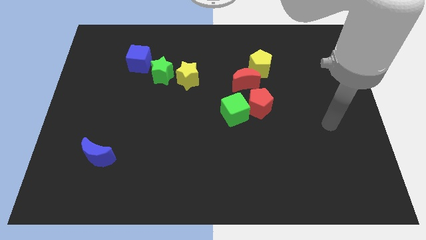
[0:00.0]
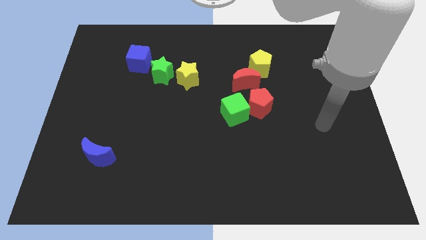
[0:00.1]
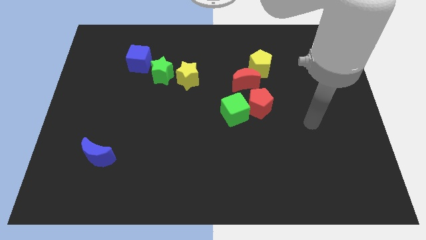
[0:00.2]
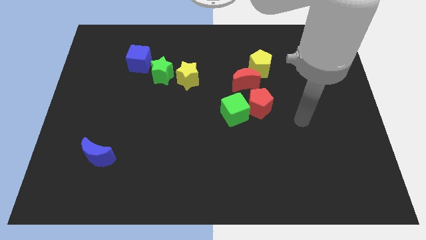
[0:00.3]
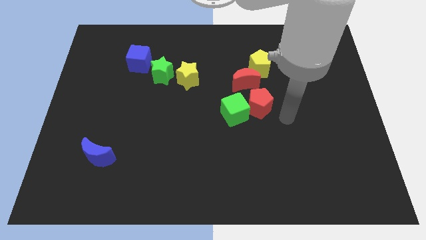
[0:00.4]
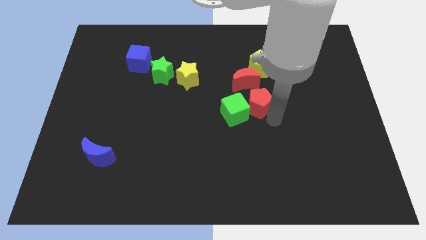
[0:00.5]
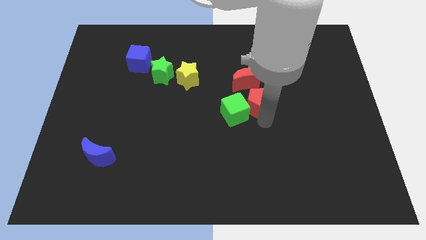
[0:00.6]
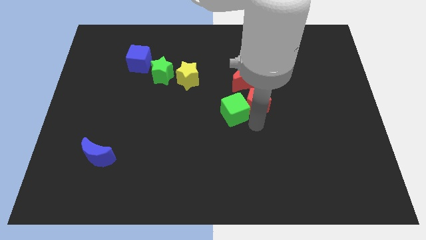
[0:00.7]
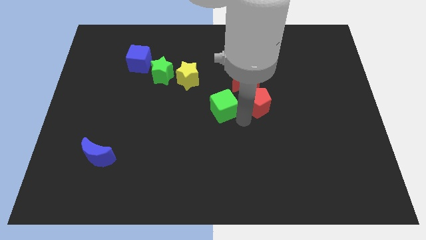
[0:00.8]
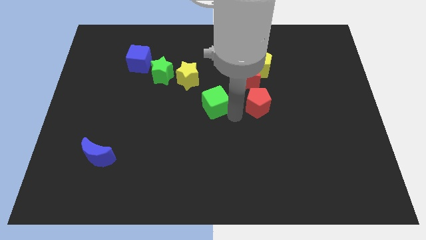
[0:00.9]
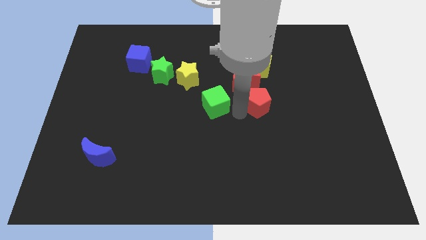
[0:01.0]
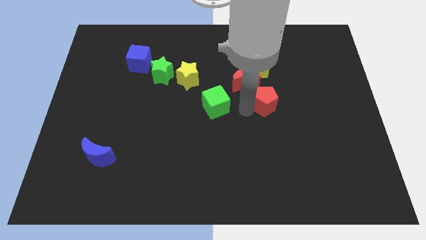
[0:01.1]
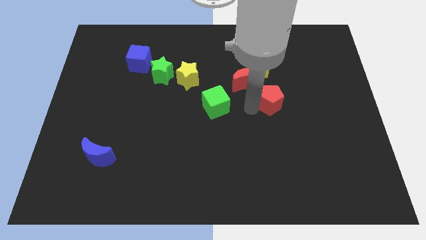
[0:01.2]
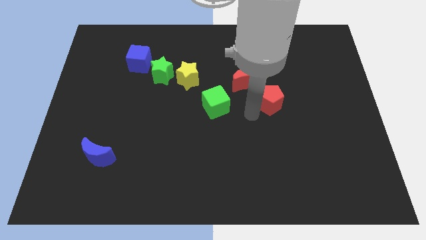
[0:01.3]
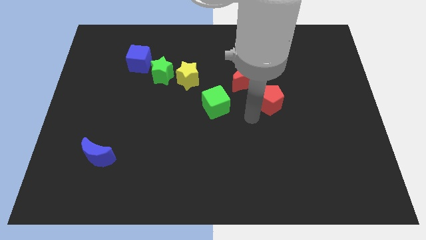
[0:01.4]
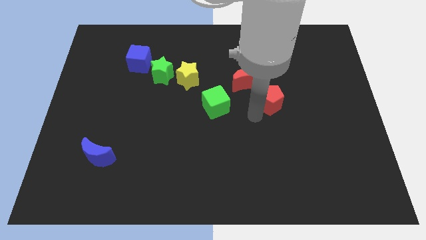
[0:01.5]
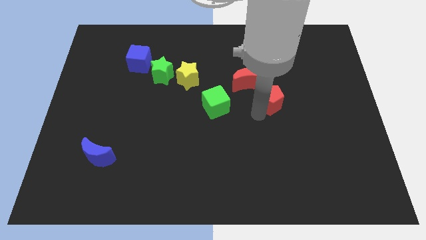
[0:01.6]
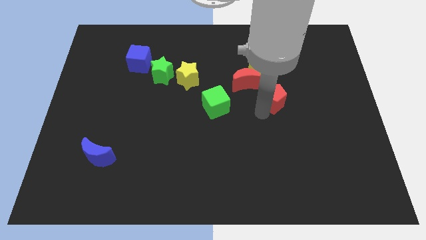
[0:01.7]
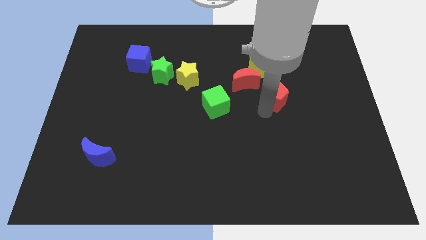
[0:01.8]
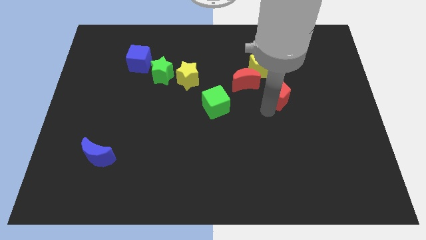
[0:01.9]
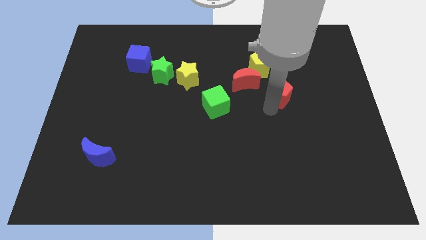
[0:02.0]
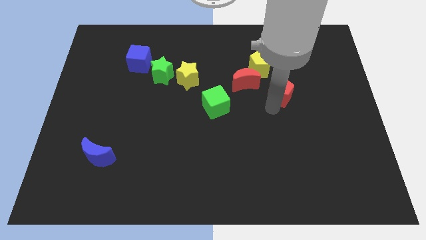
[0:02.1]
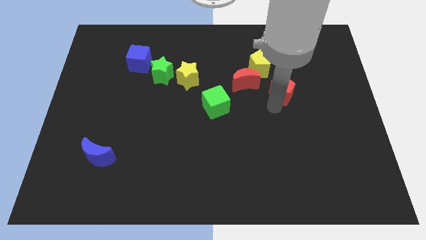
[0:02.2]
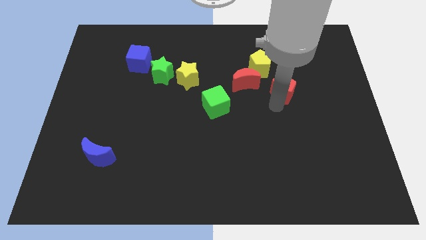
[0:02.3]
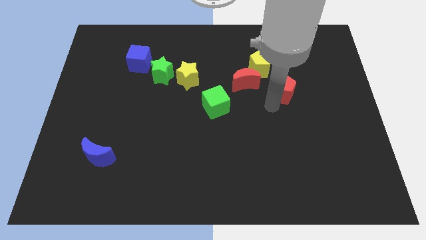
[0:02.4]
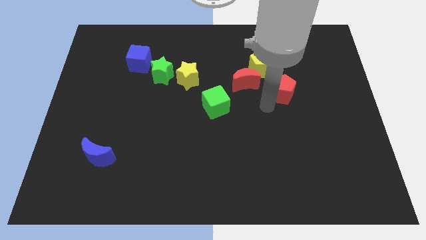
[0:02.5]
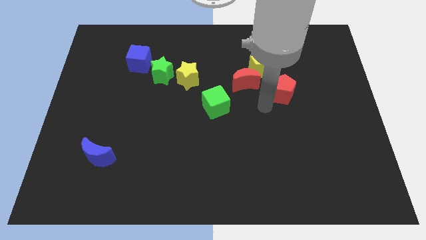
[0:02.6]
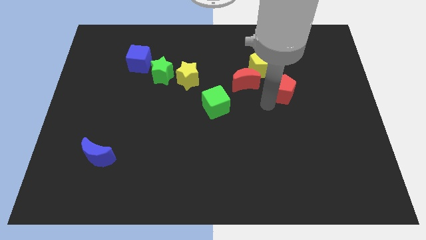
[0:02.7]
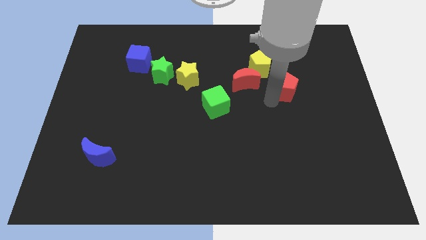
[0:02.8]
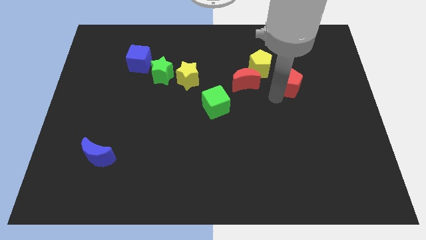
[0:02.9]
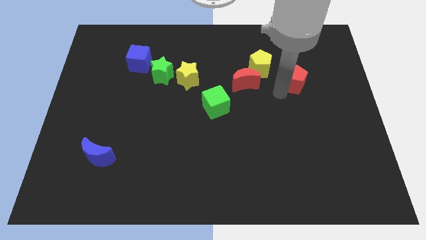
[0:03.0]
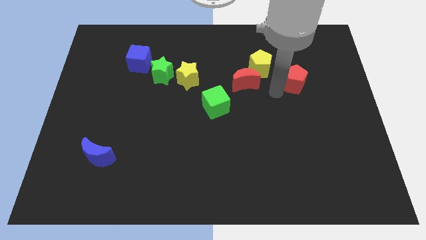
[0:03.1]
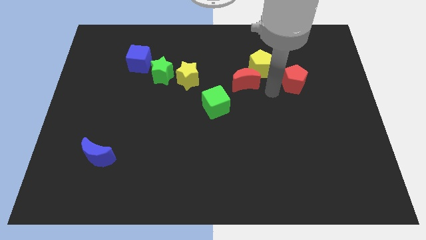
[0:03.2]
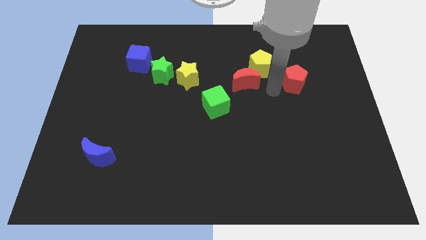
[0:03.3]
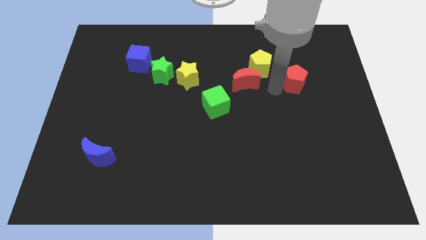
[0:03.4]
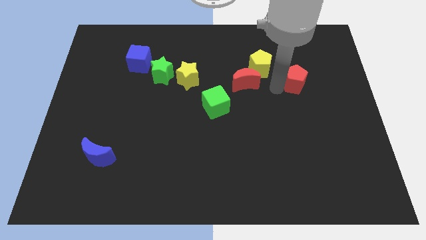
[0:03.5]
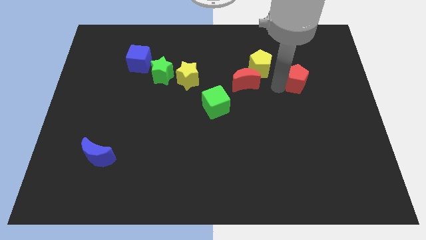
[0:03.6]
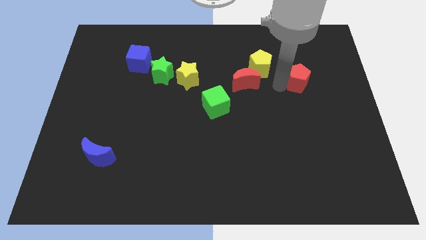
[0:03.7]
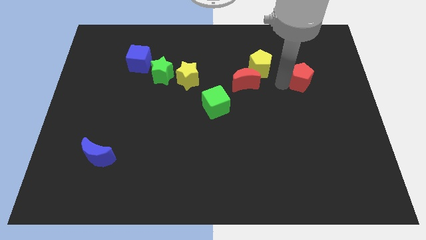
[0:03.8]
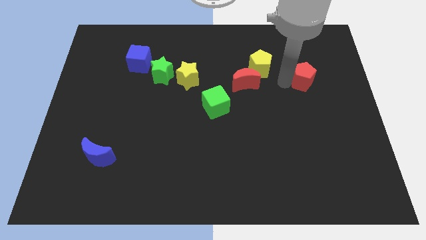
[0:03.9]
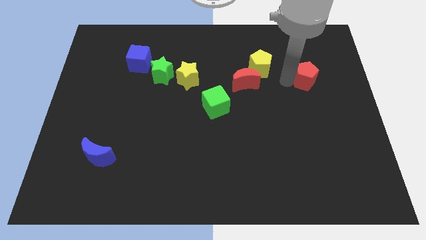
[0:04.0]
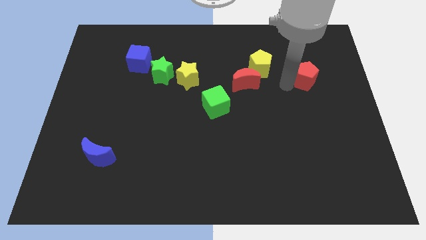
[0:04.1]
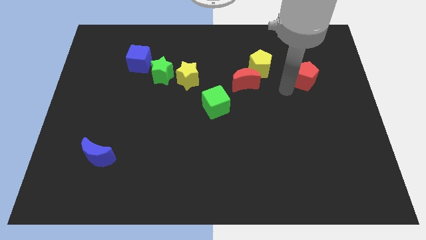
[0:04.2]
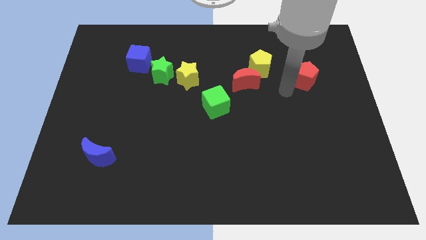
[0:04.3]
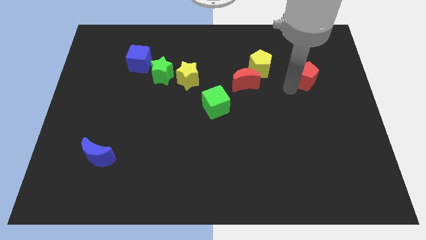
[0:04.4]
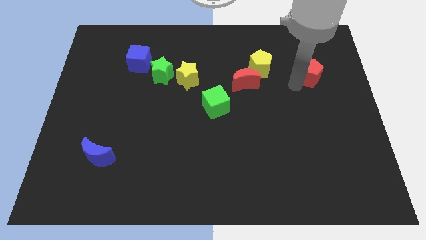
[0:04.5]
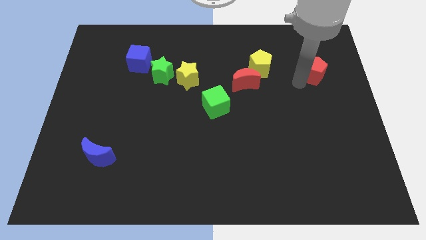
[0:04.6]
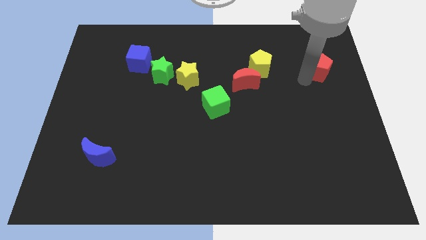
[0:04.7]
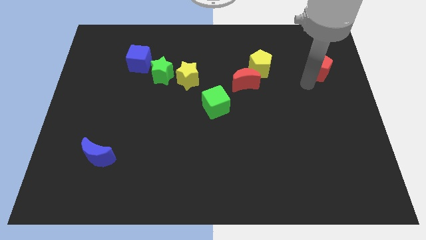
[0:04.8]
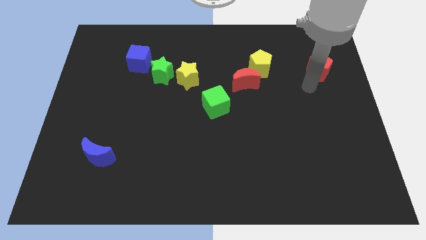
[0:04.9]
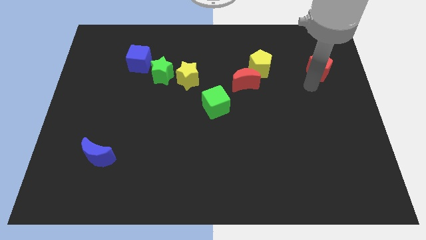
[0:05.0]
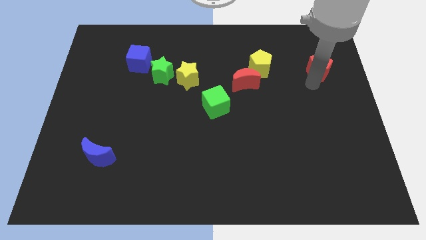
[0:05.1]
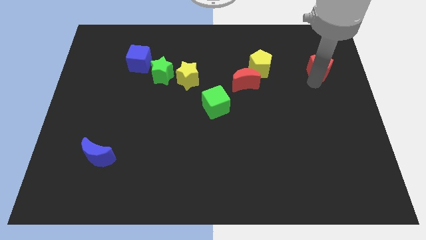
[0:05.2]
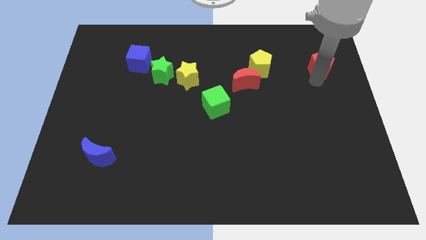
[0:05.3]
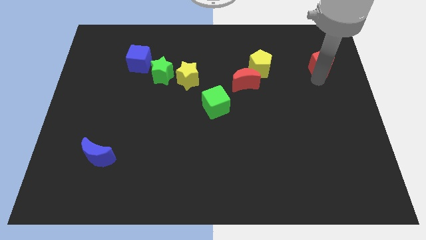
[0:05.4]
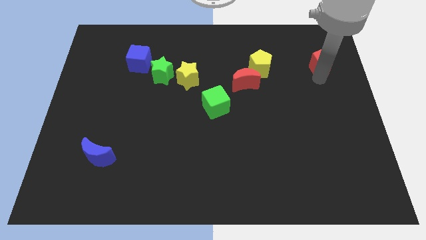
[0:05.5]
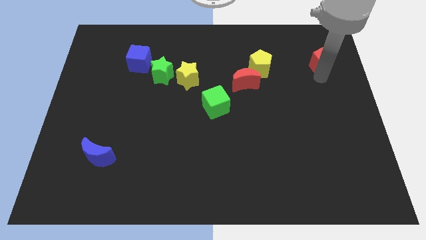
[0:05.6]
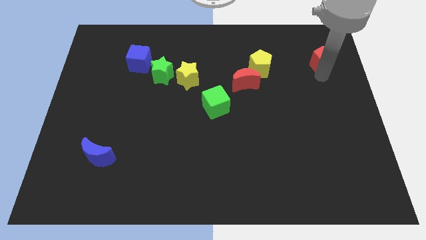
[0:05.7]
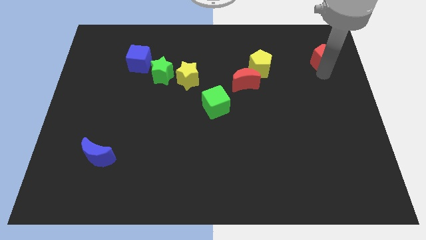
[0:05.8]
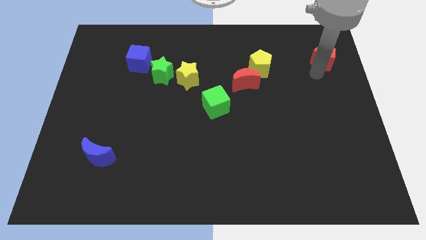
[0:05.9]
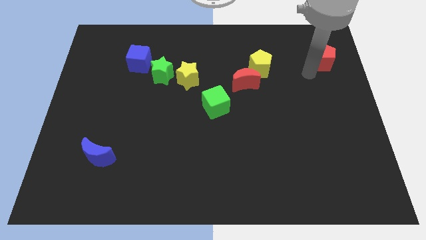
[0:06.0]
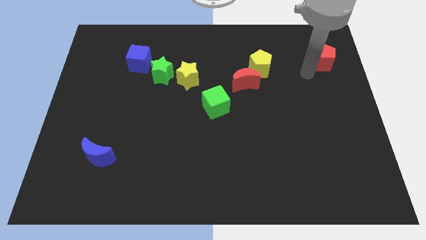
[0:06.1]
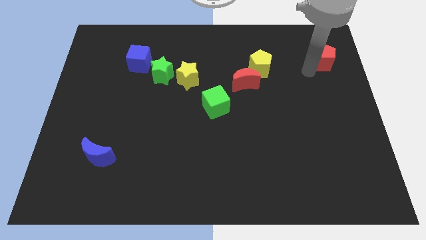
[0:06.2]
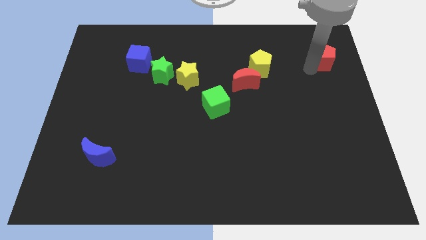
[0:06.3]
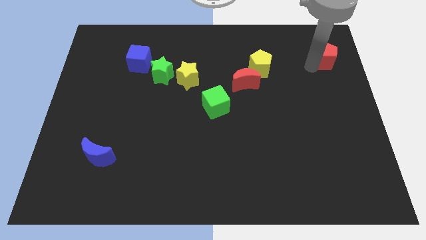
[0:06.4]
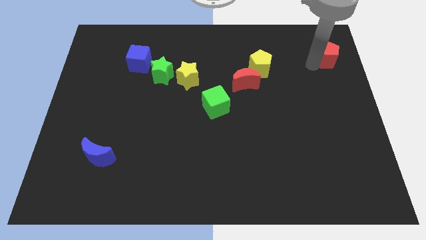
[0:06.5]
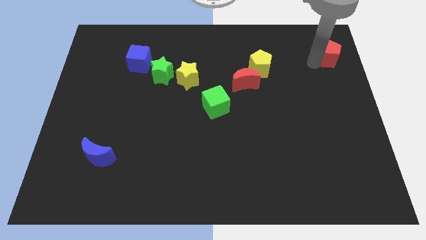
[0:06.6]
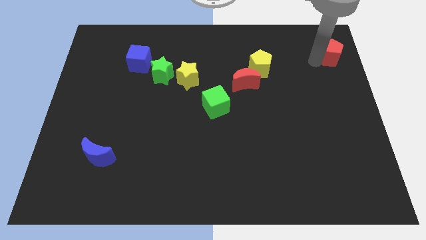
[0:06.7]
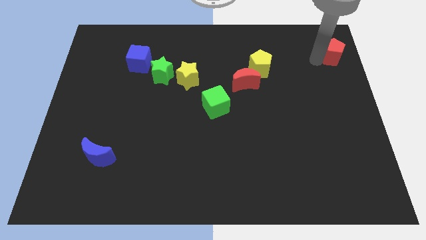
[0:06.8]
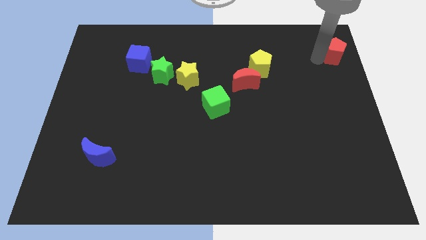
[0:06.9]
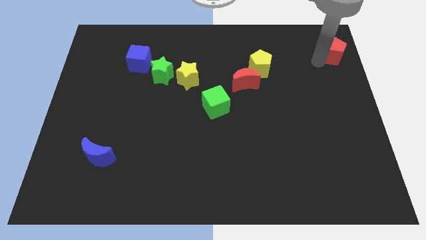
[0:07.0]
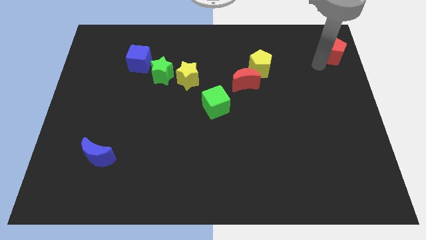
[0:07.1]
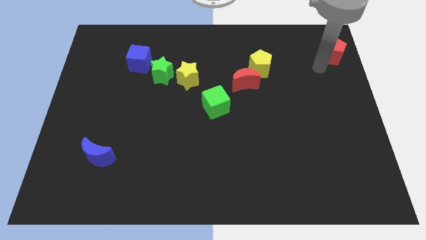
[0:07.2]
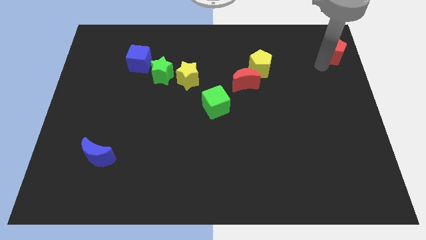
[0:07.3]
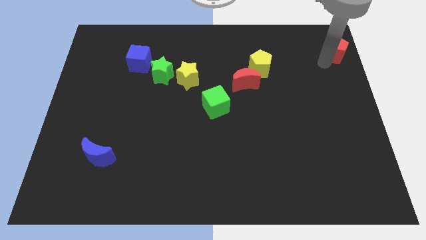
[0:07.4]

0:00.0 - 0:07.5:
slide the red pentagon to the top right corner
